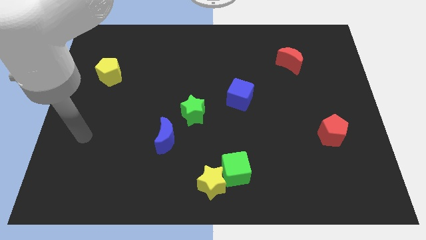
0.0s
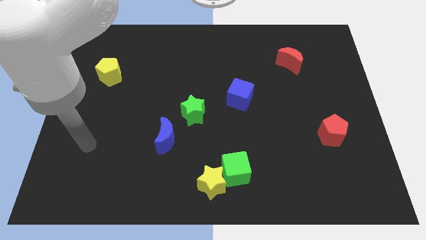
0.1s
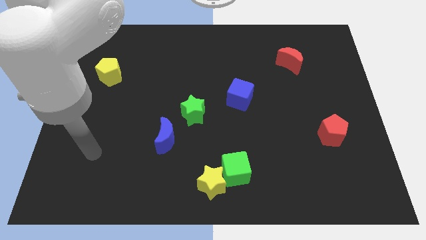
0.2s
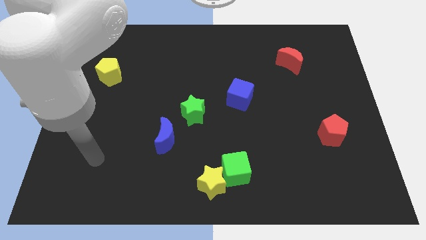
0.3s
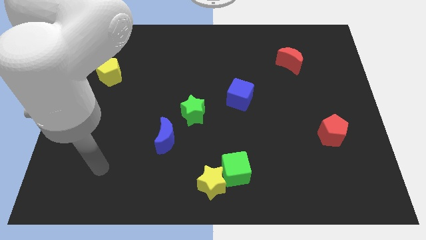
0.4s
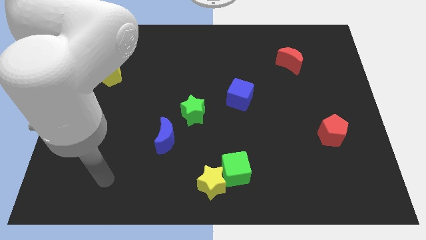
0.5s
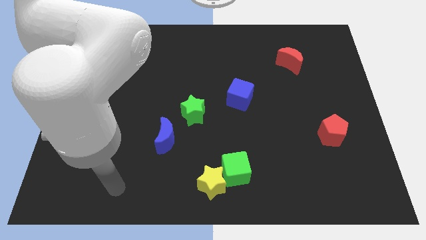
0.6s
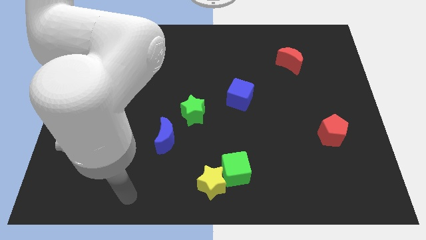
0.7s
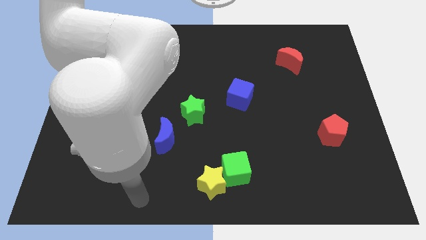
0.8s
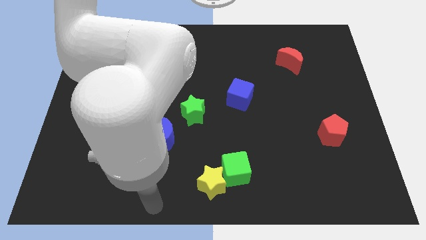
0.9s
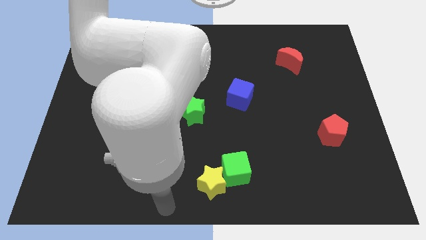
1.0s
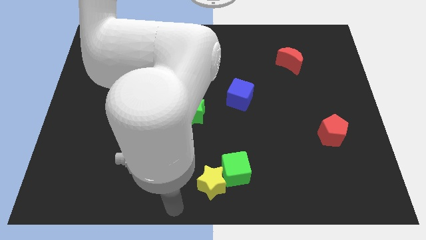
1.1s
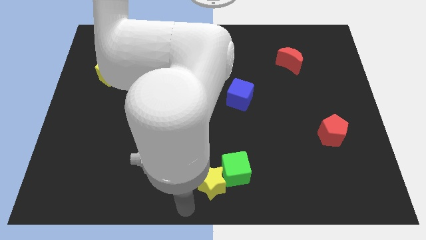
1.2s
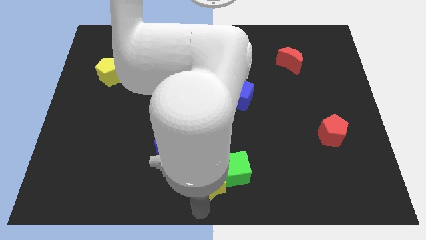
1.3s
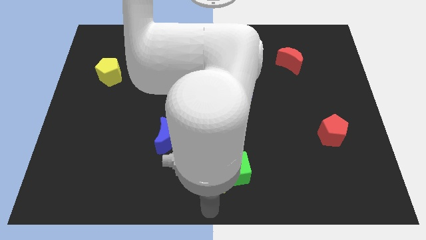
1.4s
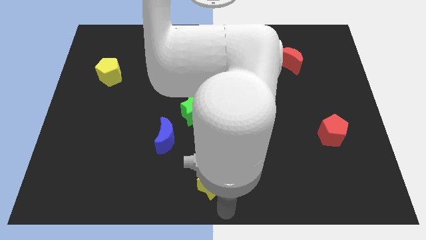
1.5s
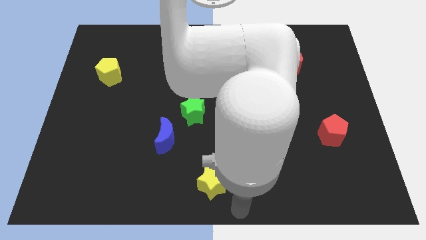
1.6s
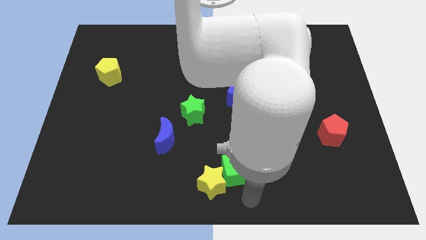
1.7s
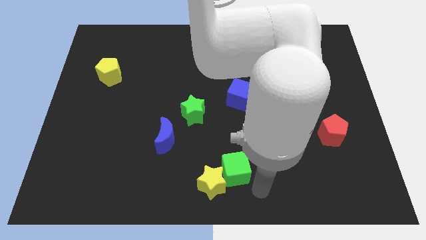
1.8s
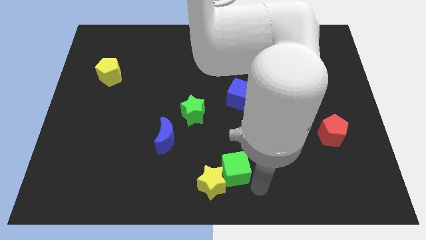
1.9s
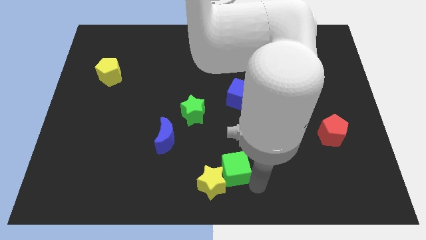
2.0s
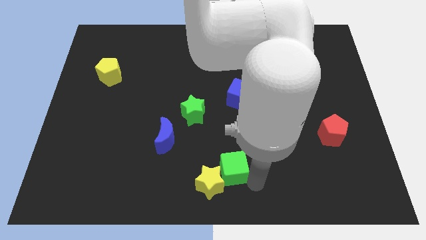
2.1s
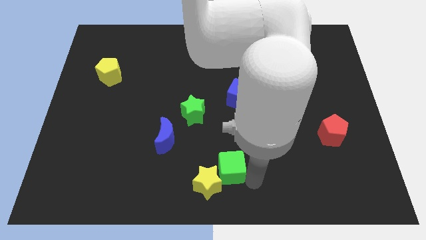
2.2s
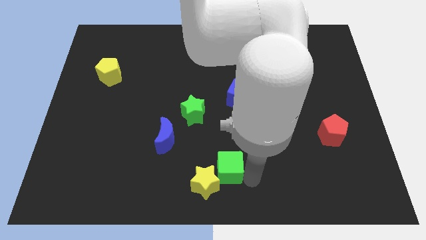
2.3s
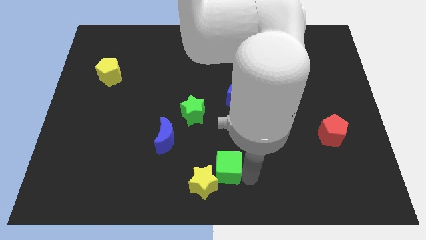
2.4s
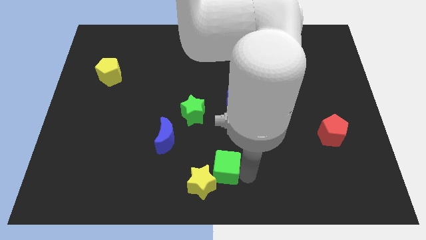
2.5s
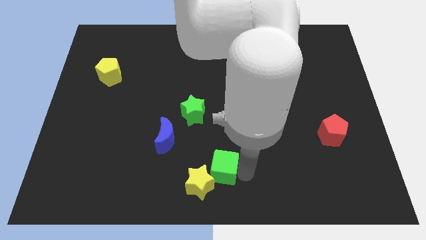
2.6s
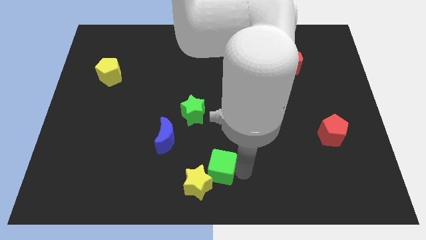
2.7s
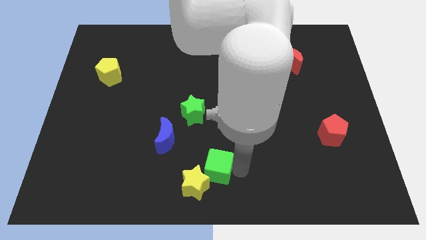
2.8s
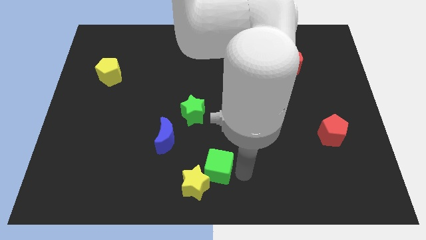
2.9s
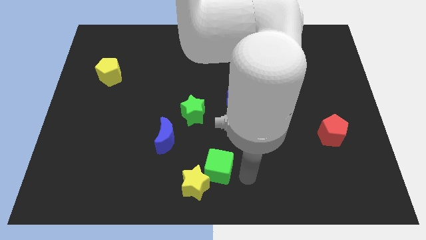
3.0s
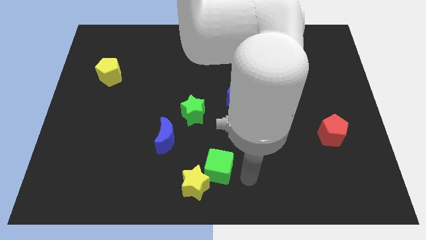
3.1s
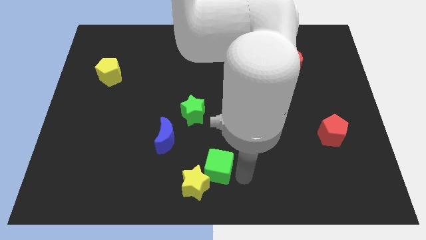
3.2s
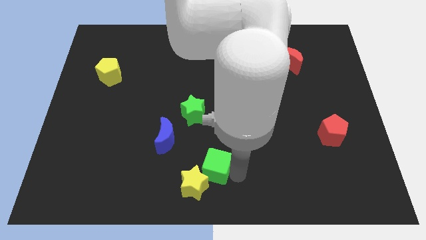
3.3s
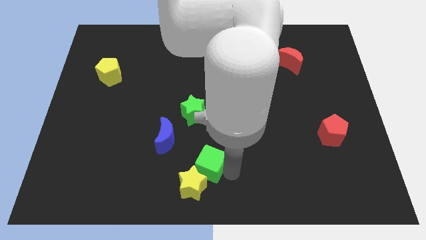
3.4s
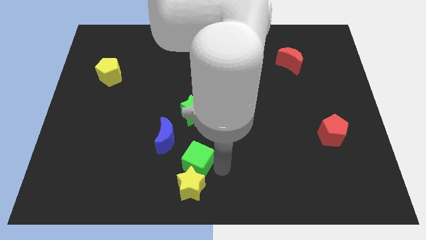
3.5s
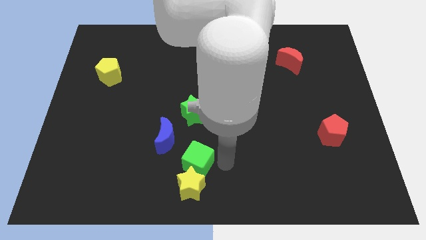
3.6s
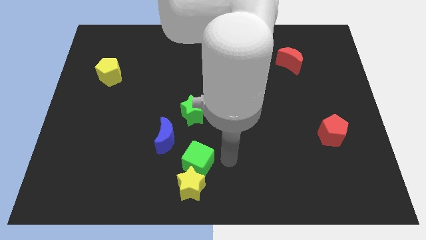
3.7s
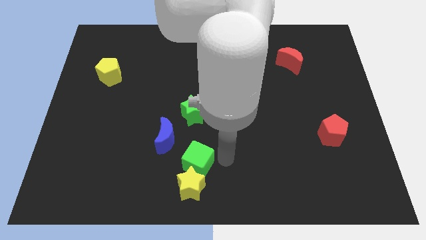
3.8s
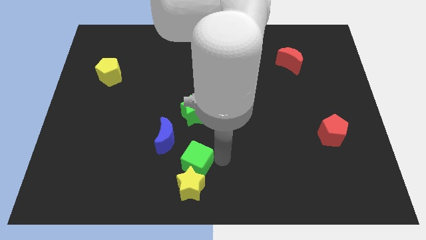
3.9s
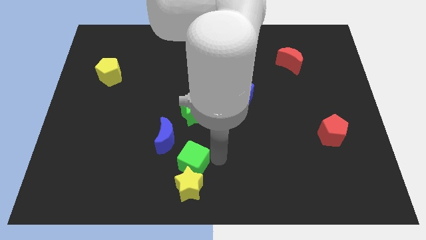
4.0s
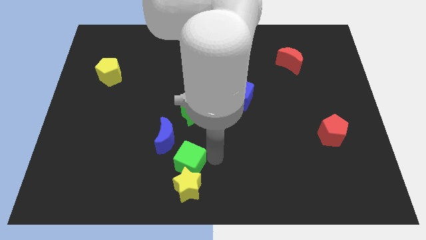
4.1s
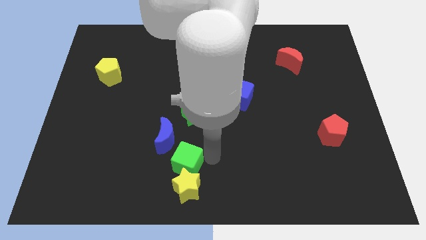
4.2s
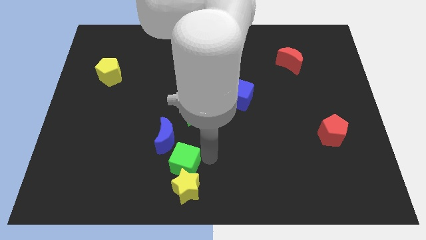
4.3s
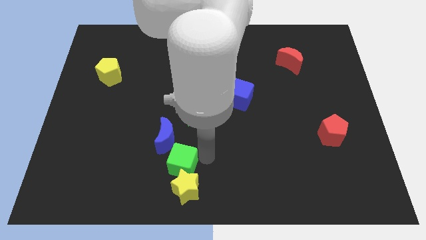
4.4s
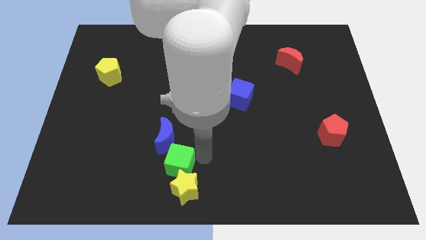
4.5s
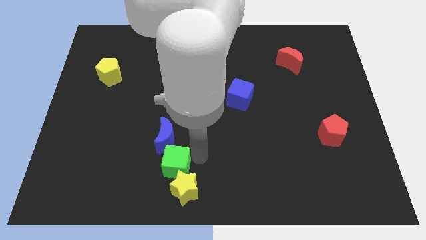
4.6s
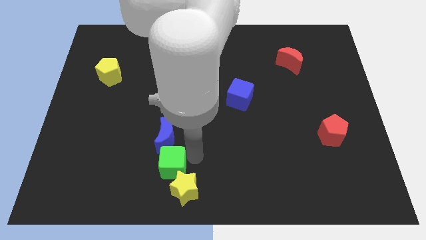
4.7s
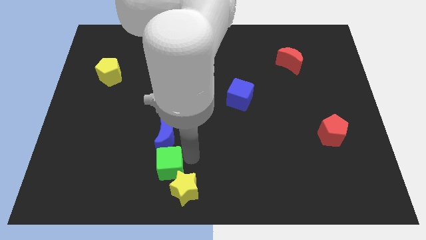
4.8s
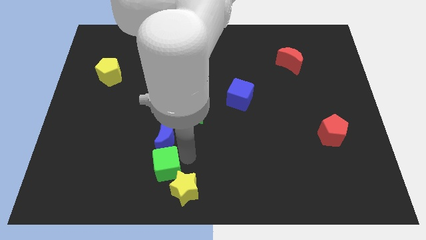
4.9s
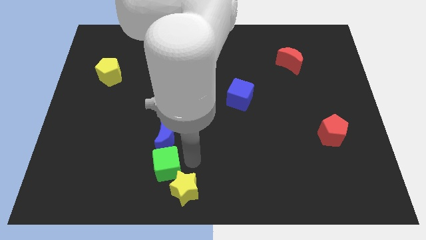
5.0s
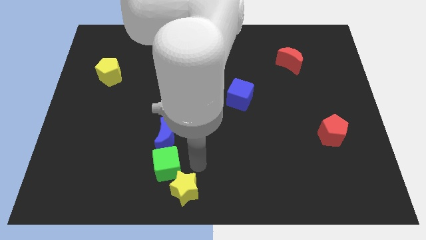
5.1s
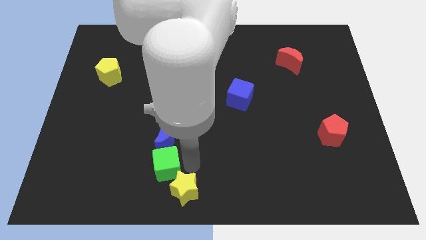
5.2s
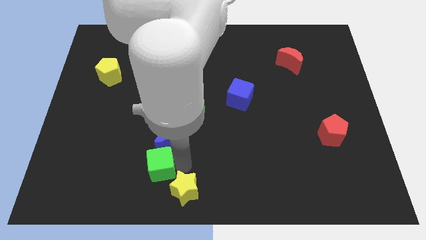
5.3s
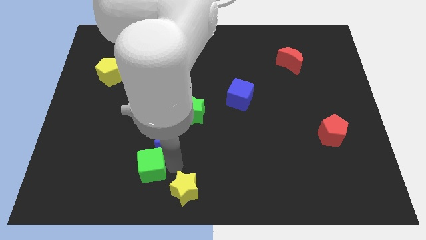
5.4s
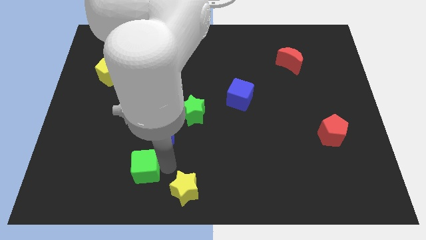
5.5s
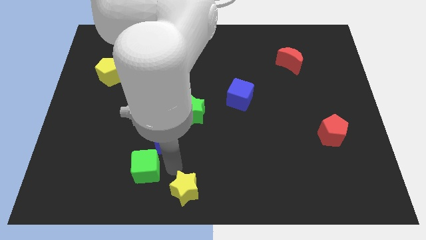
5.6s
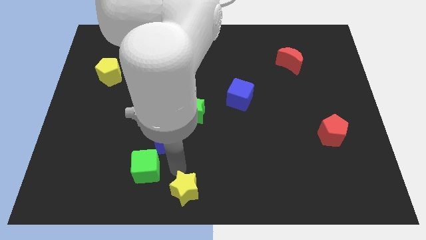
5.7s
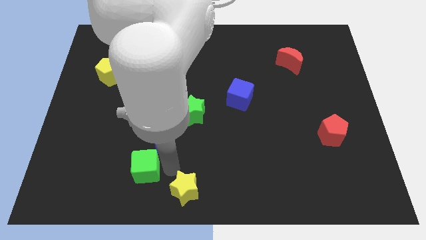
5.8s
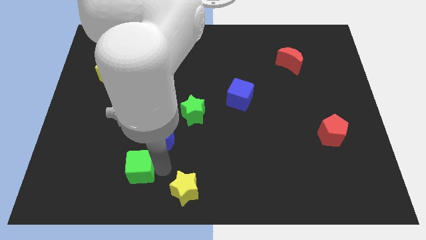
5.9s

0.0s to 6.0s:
push the green cube to the left

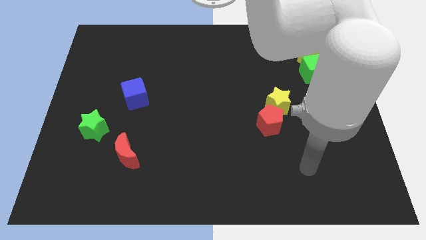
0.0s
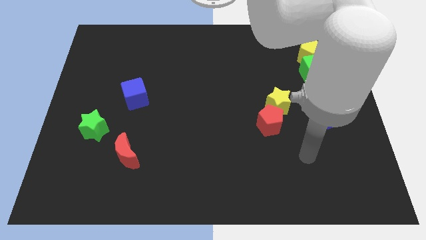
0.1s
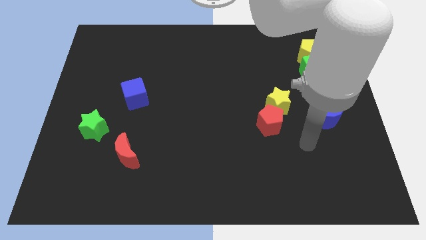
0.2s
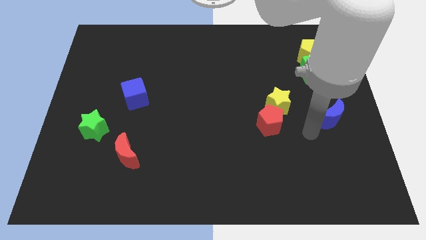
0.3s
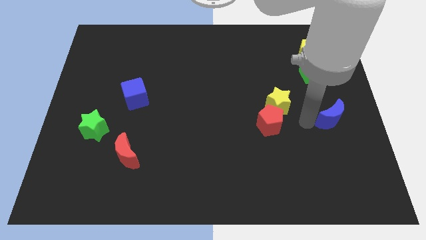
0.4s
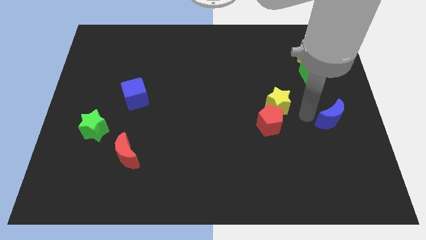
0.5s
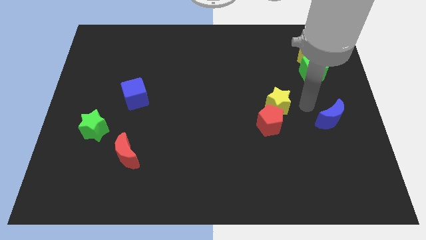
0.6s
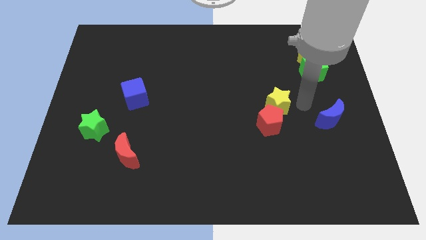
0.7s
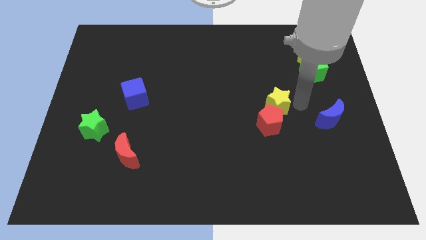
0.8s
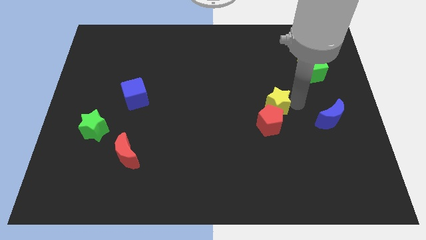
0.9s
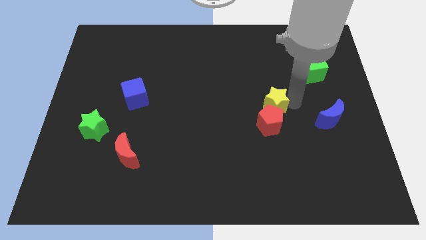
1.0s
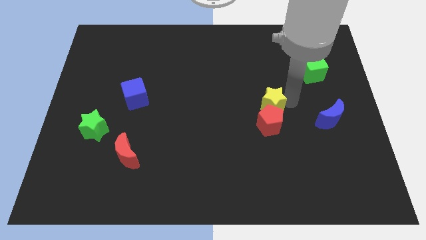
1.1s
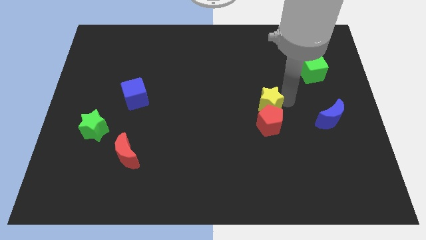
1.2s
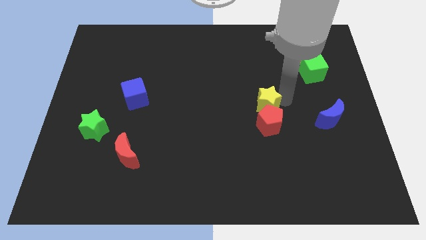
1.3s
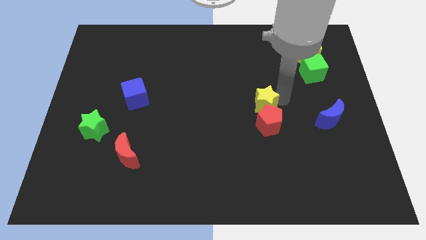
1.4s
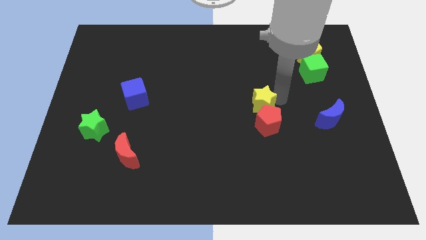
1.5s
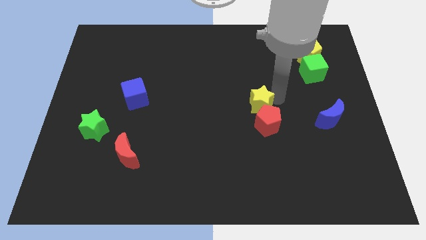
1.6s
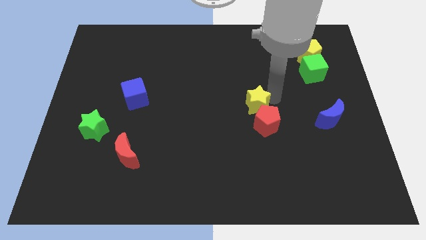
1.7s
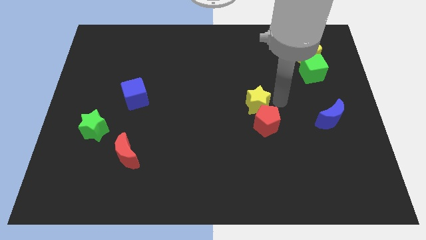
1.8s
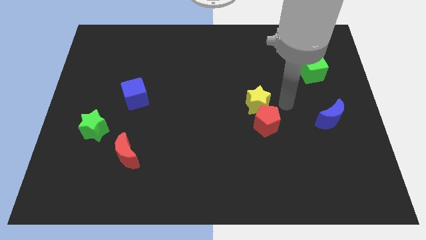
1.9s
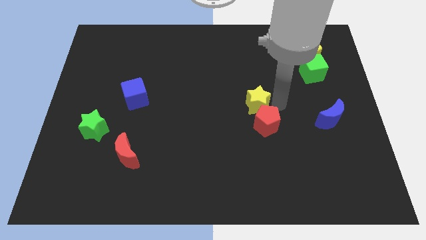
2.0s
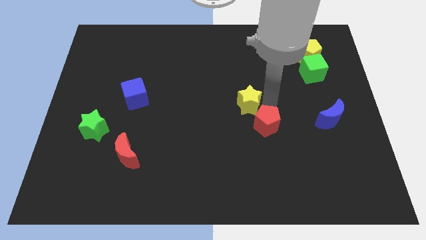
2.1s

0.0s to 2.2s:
slide the yellow star somewhat to the left
